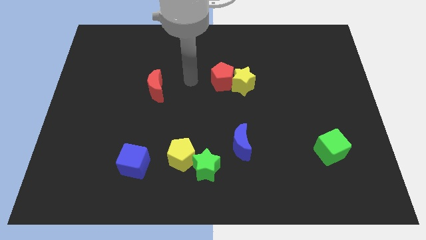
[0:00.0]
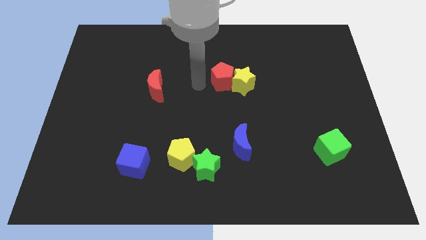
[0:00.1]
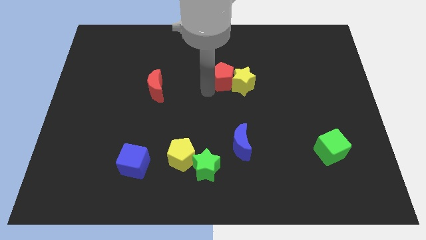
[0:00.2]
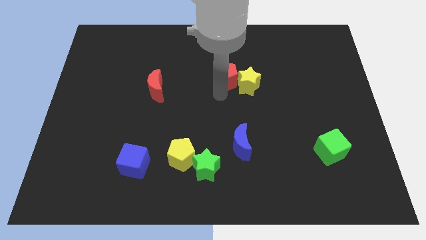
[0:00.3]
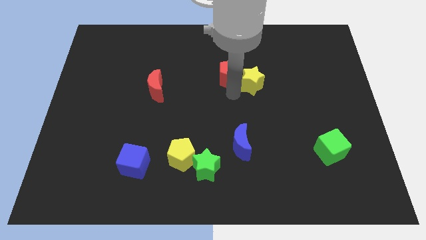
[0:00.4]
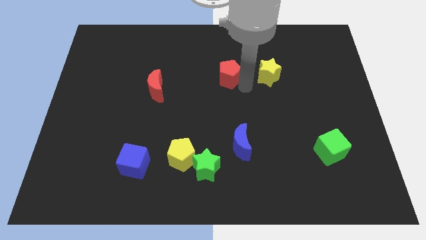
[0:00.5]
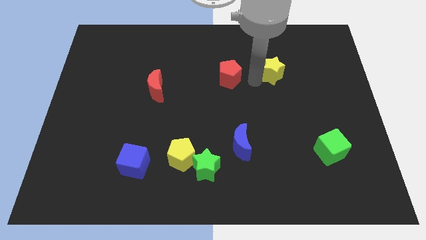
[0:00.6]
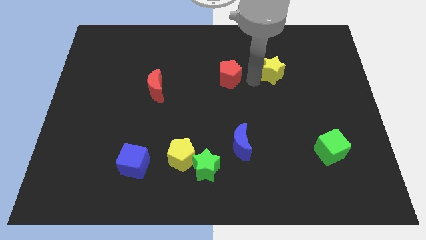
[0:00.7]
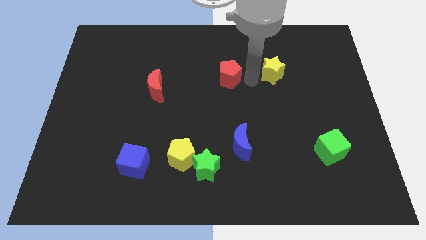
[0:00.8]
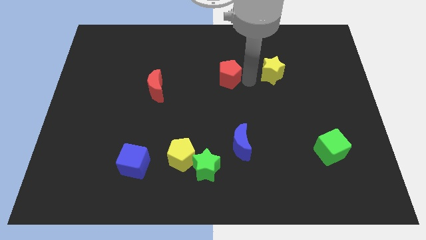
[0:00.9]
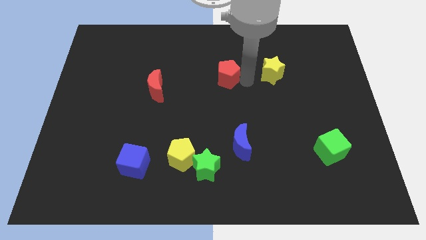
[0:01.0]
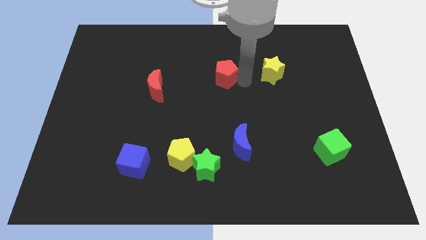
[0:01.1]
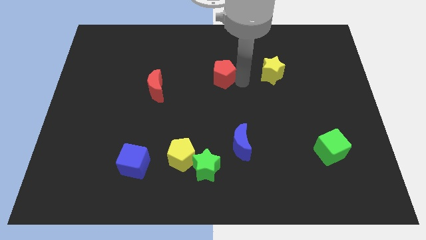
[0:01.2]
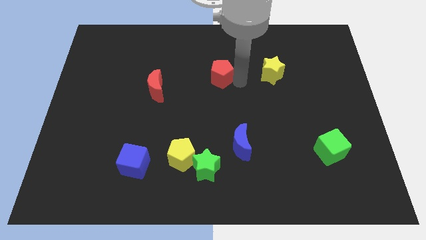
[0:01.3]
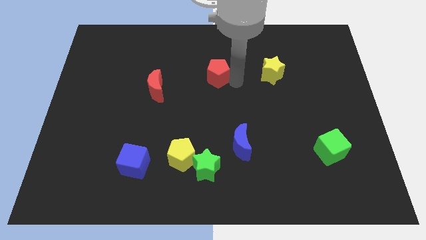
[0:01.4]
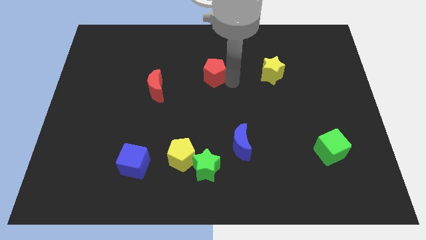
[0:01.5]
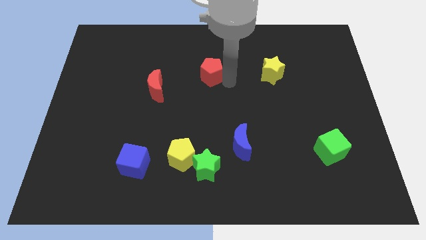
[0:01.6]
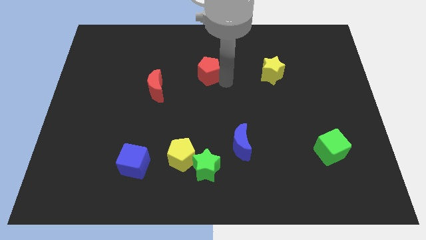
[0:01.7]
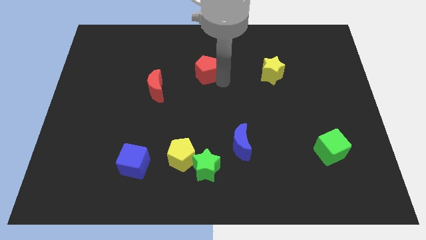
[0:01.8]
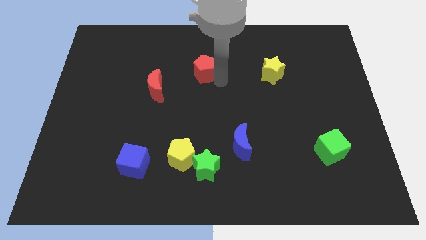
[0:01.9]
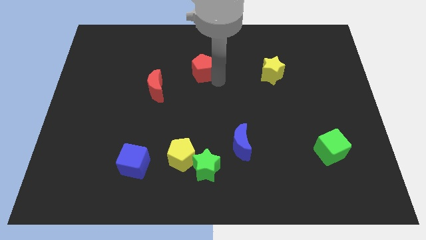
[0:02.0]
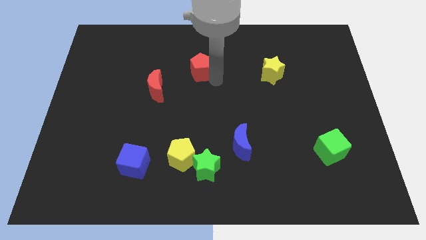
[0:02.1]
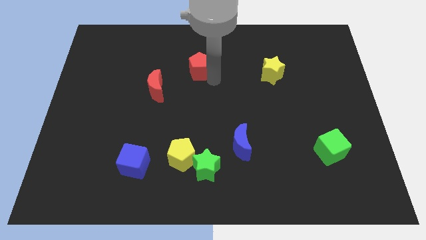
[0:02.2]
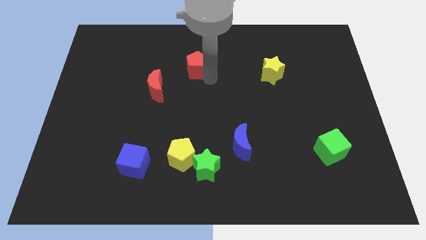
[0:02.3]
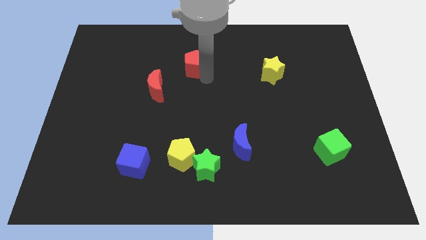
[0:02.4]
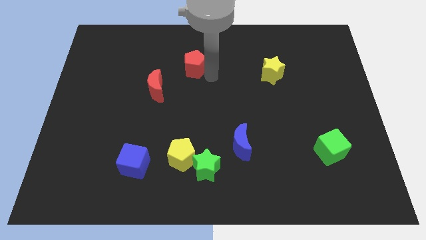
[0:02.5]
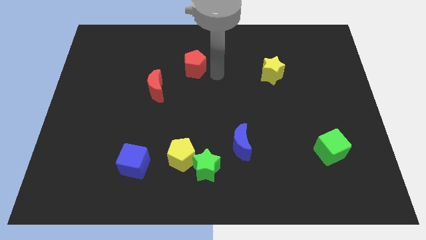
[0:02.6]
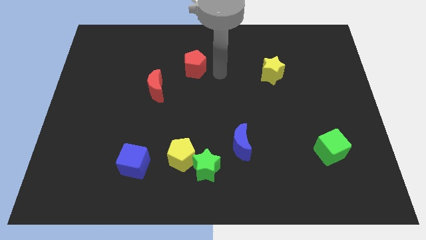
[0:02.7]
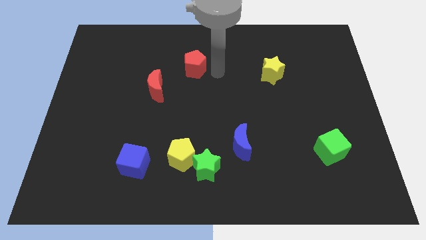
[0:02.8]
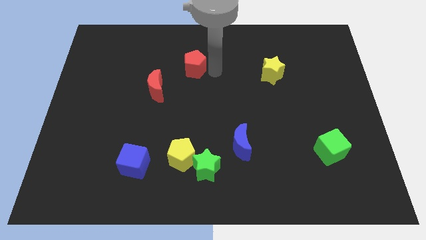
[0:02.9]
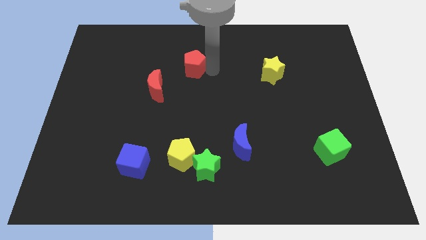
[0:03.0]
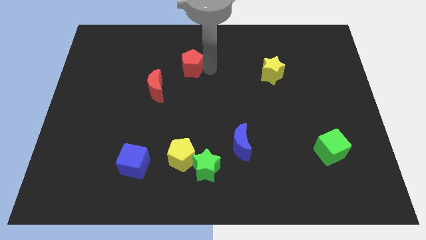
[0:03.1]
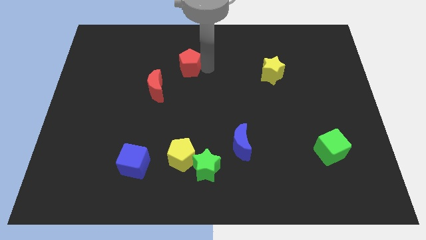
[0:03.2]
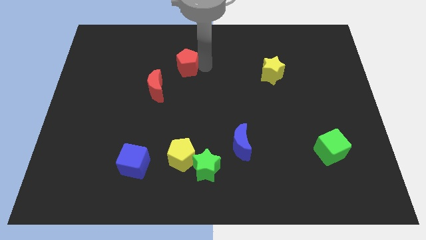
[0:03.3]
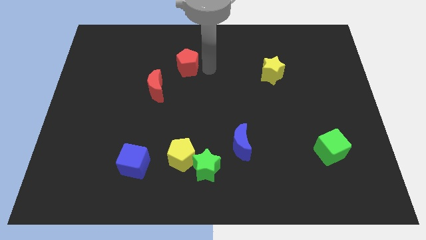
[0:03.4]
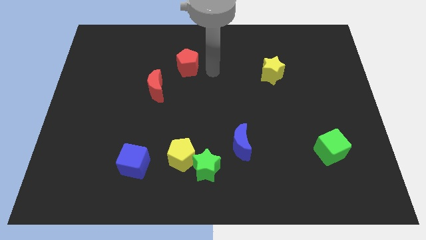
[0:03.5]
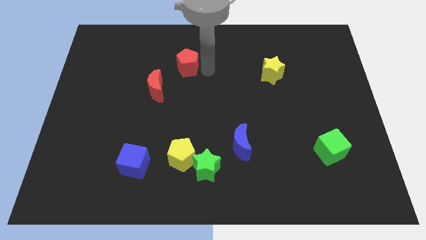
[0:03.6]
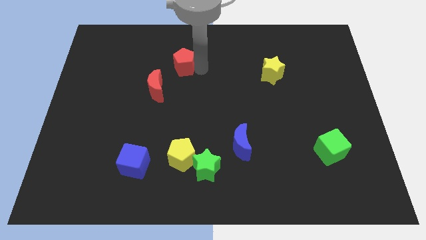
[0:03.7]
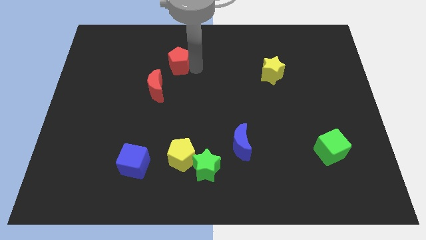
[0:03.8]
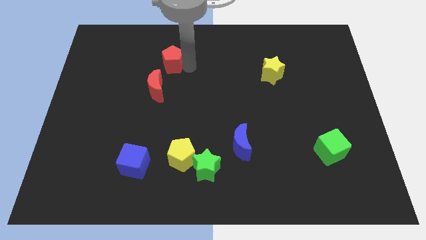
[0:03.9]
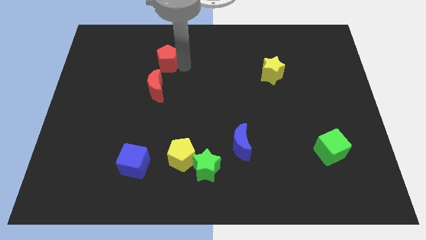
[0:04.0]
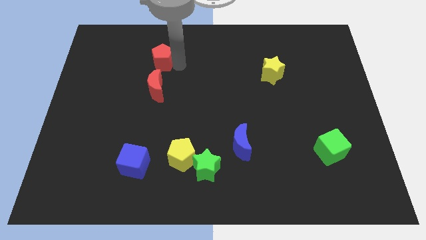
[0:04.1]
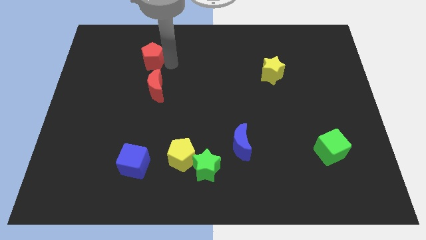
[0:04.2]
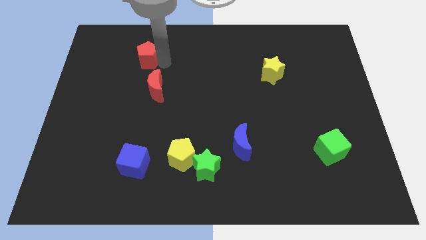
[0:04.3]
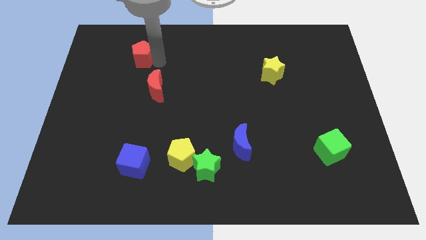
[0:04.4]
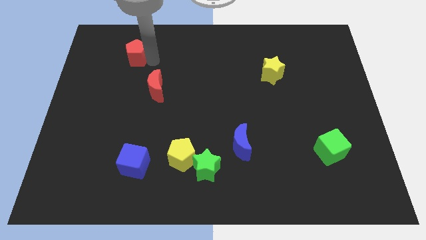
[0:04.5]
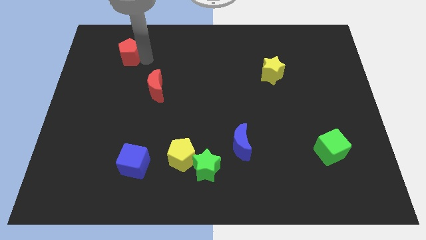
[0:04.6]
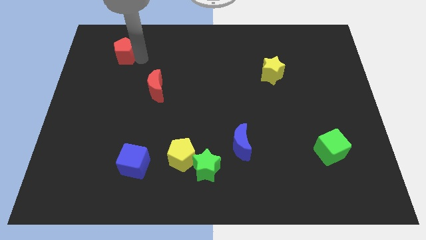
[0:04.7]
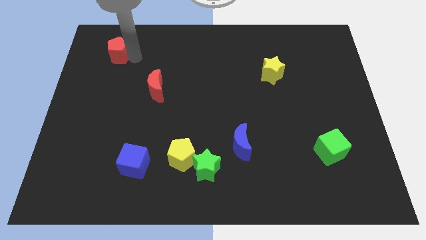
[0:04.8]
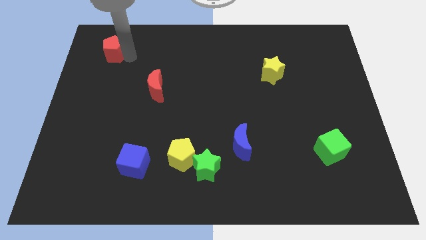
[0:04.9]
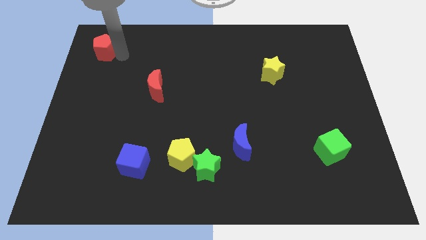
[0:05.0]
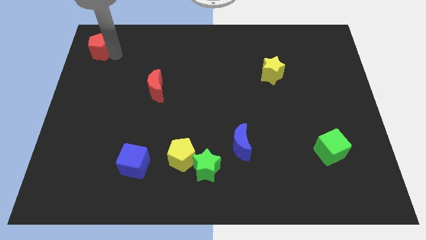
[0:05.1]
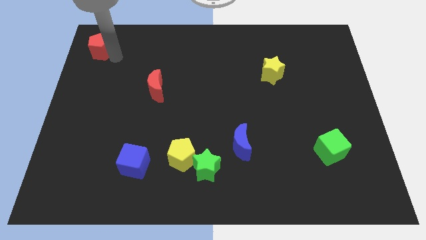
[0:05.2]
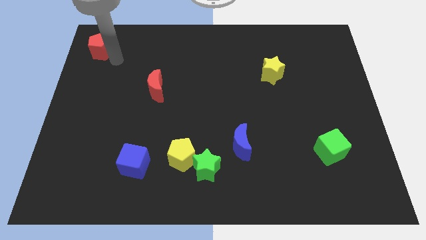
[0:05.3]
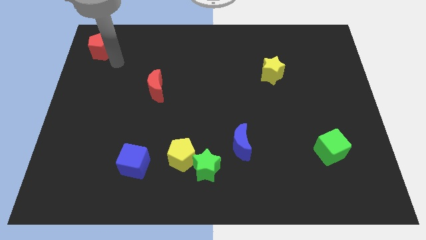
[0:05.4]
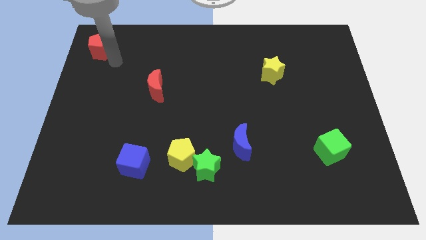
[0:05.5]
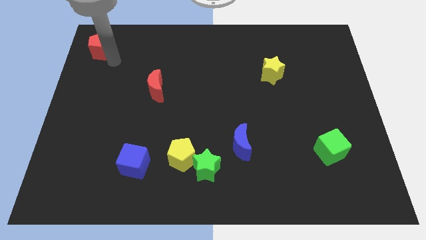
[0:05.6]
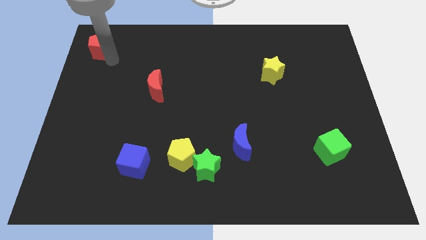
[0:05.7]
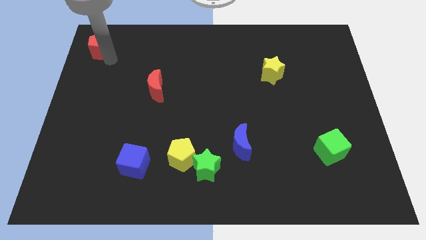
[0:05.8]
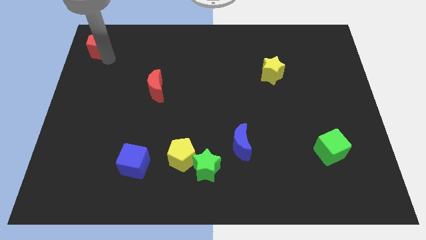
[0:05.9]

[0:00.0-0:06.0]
move the red pentagon to the top left

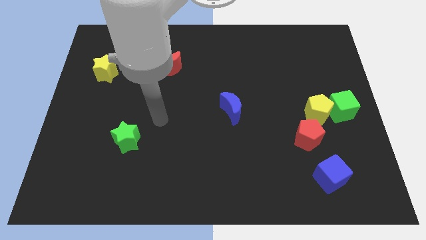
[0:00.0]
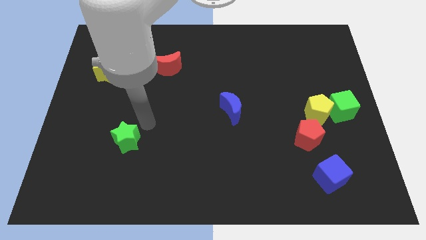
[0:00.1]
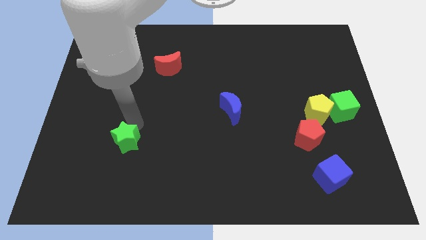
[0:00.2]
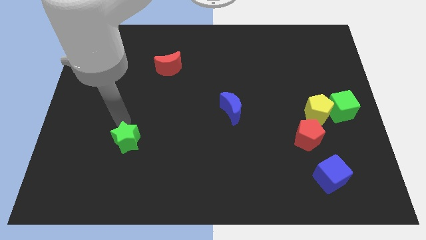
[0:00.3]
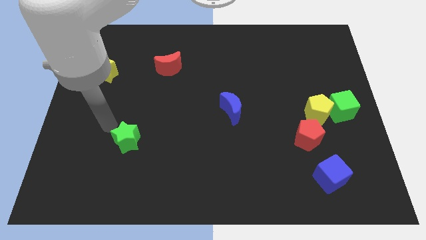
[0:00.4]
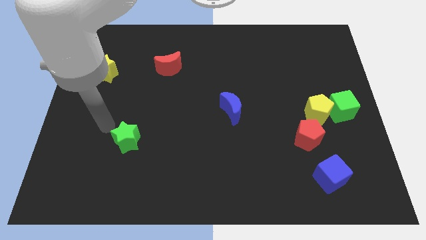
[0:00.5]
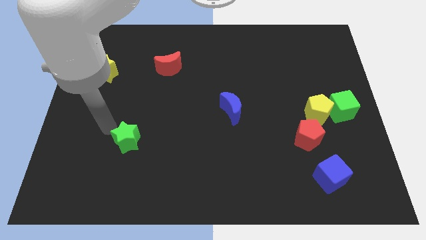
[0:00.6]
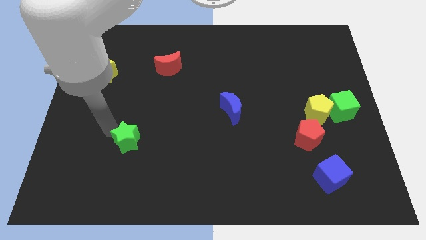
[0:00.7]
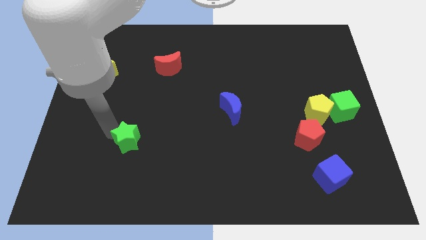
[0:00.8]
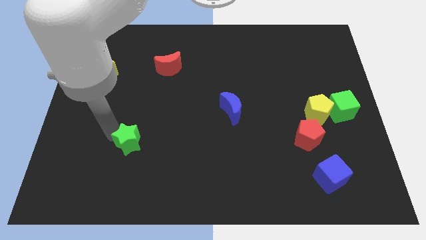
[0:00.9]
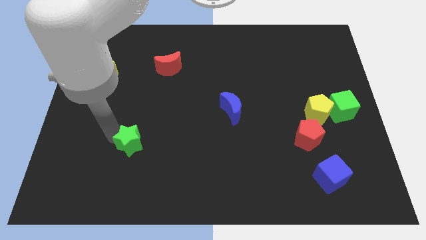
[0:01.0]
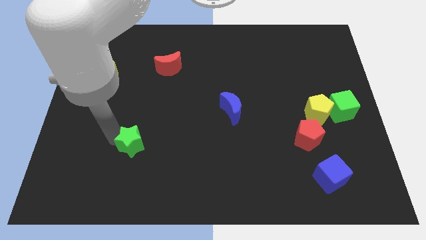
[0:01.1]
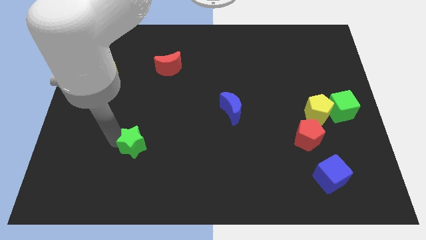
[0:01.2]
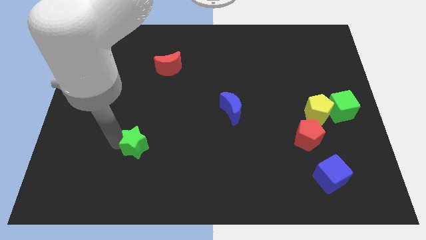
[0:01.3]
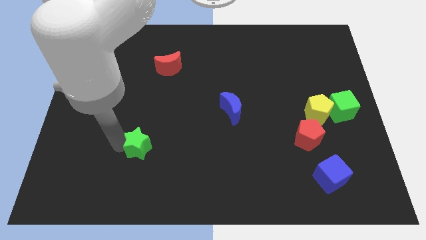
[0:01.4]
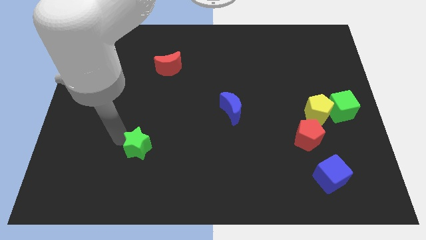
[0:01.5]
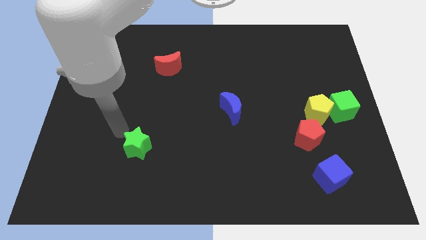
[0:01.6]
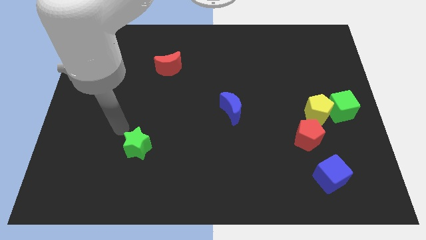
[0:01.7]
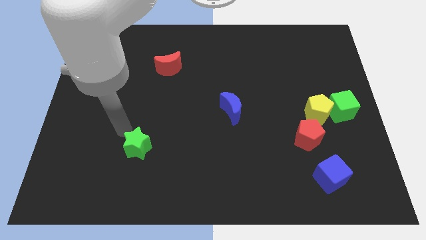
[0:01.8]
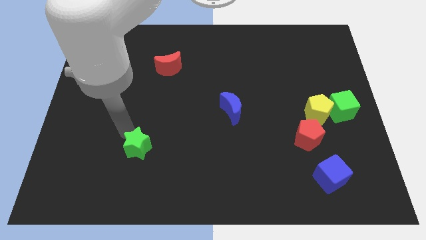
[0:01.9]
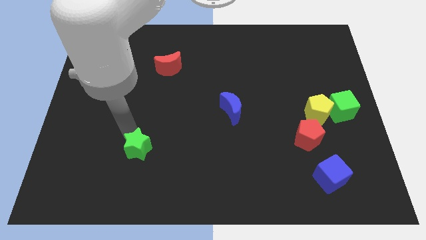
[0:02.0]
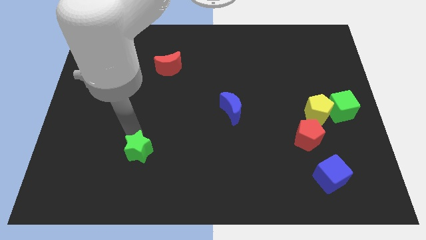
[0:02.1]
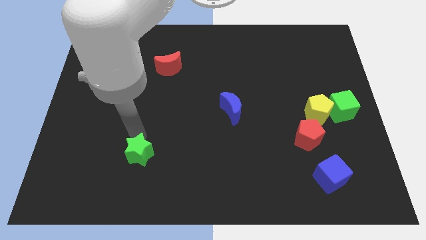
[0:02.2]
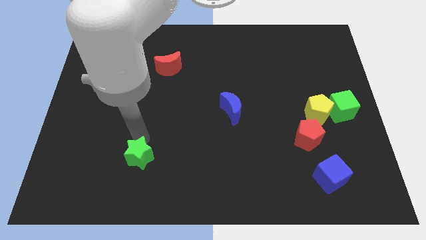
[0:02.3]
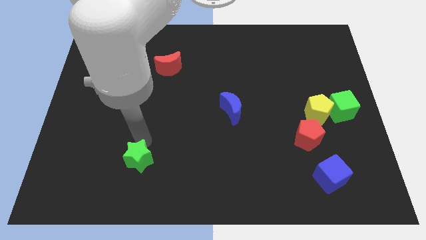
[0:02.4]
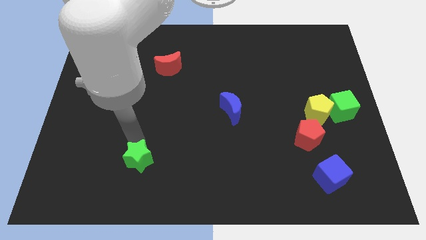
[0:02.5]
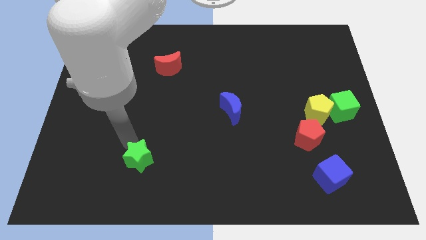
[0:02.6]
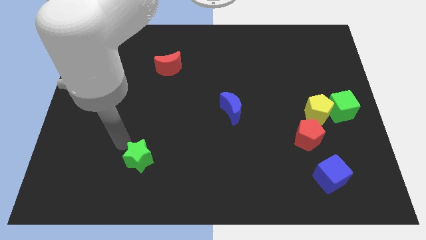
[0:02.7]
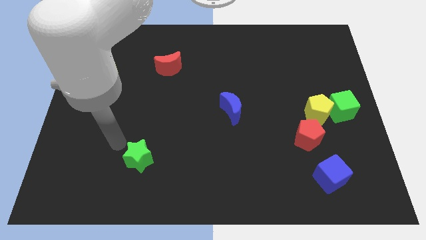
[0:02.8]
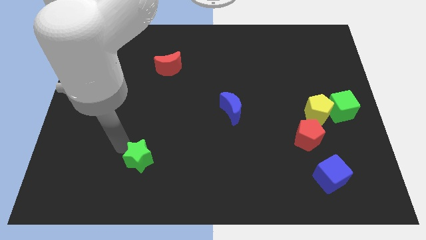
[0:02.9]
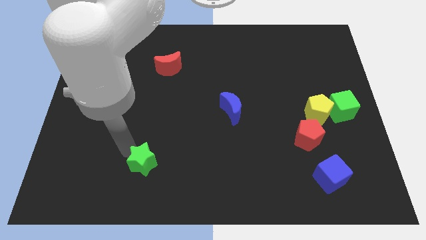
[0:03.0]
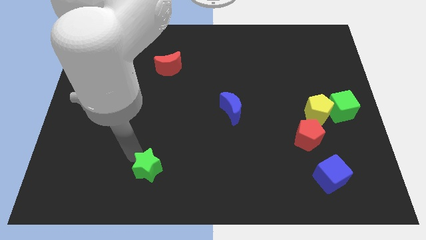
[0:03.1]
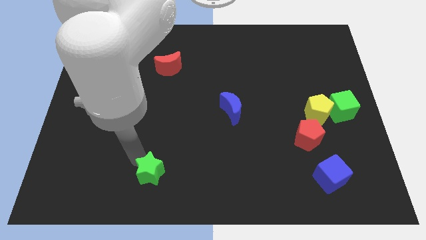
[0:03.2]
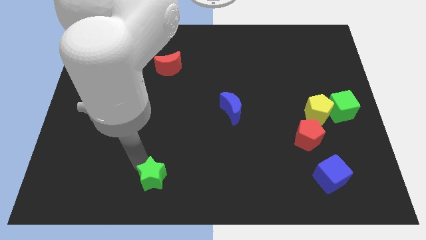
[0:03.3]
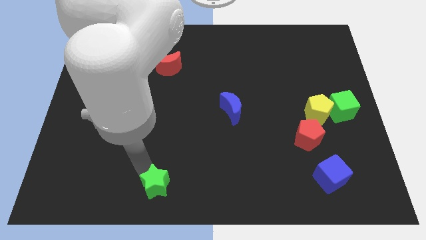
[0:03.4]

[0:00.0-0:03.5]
slide the green star to the bottom
